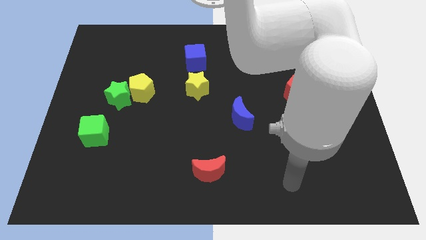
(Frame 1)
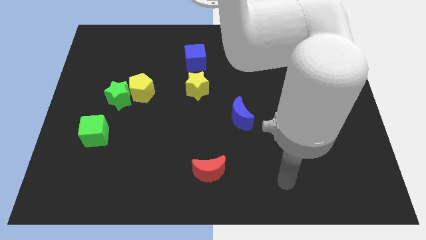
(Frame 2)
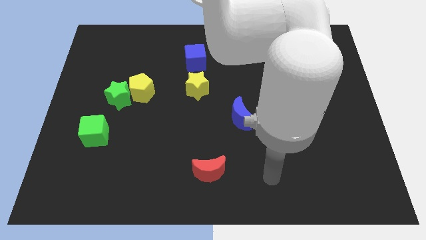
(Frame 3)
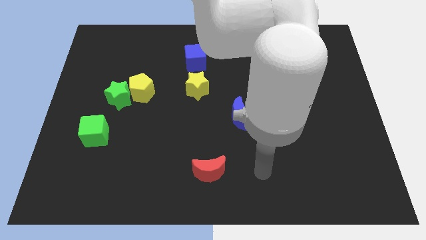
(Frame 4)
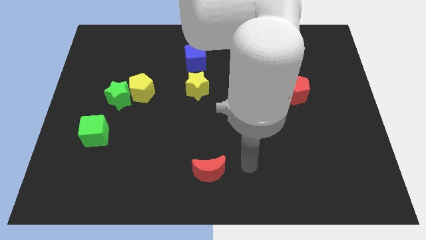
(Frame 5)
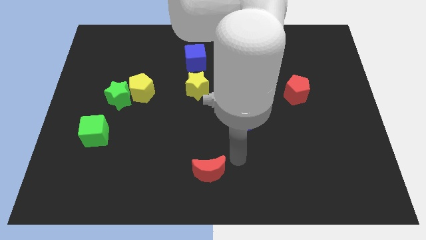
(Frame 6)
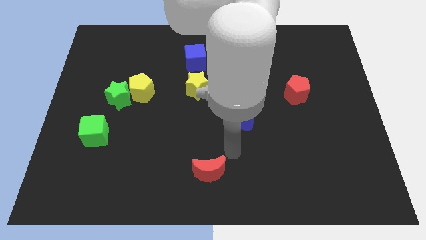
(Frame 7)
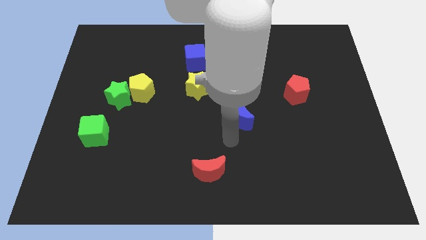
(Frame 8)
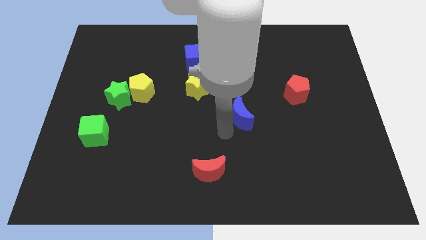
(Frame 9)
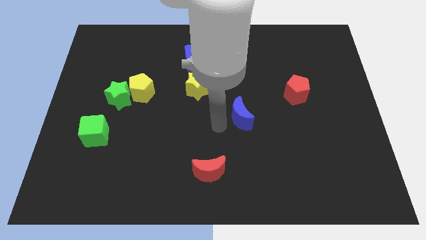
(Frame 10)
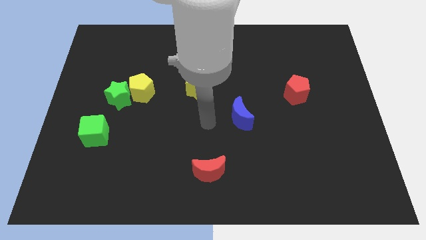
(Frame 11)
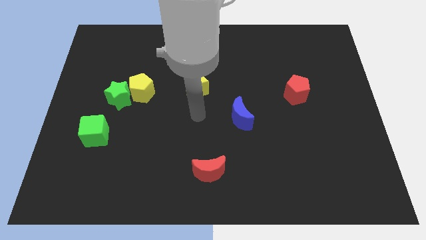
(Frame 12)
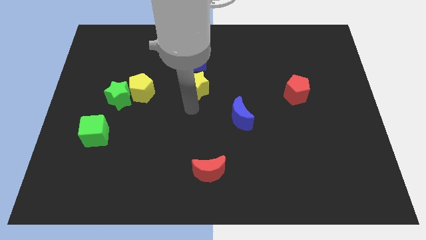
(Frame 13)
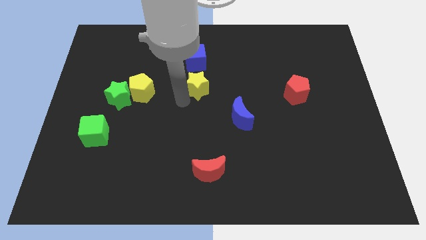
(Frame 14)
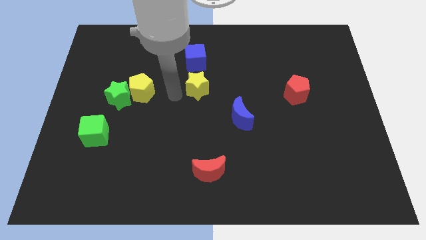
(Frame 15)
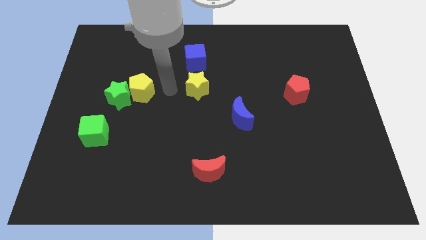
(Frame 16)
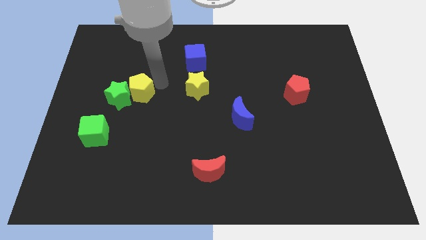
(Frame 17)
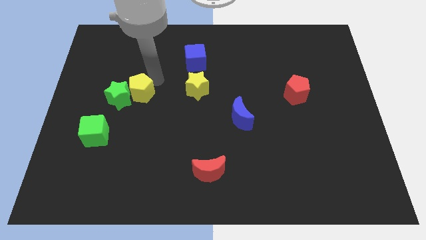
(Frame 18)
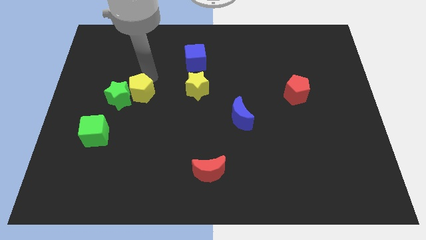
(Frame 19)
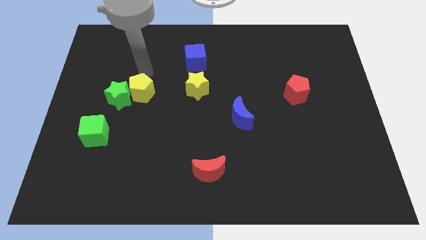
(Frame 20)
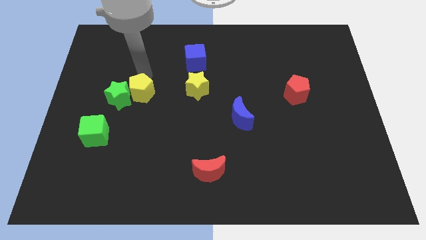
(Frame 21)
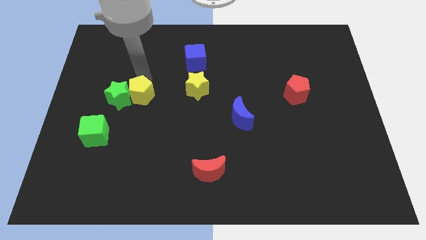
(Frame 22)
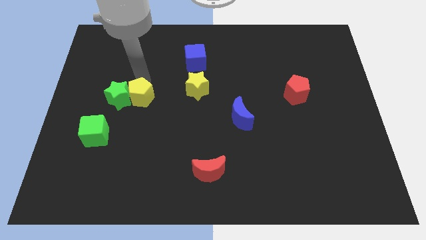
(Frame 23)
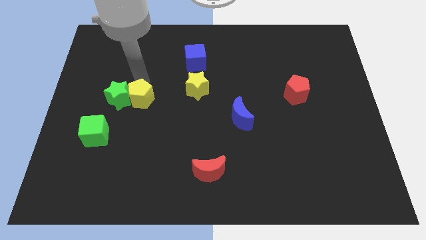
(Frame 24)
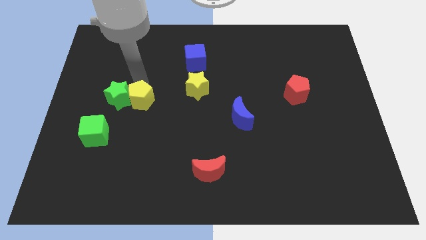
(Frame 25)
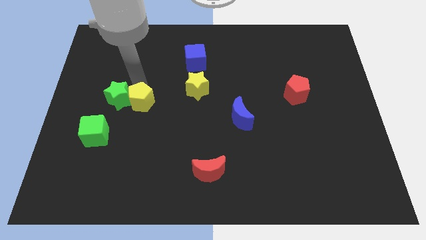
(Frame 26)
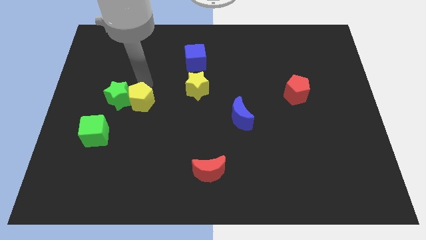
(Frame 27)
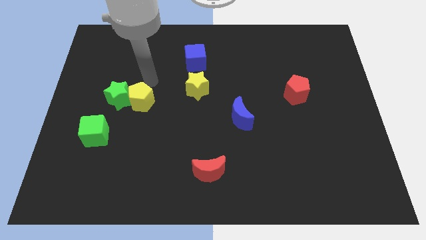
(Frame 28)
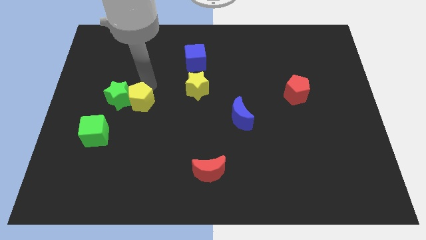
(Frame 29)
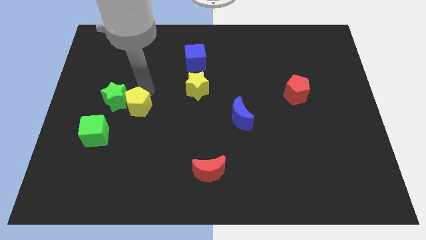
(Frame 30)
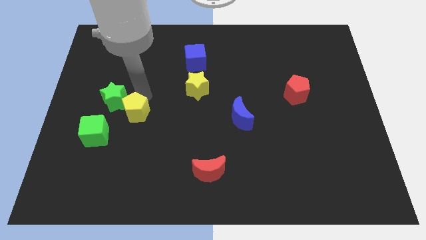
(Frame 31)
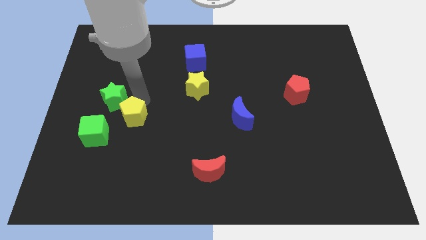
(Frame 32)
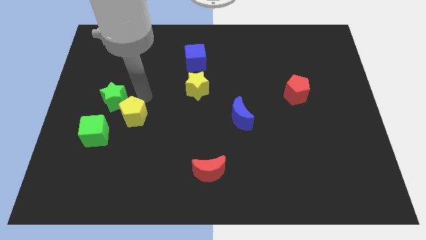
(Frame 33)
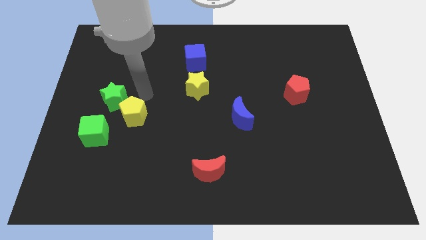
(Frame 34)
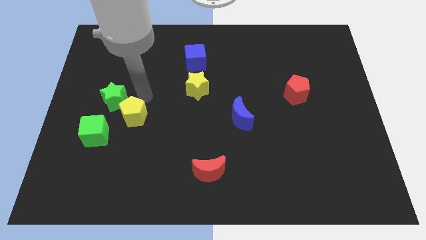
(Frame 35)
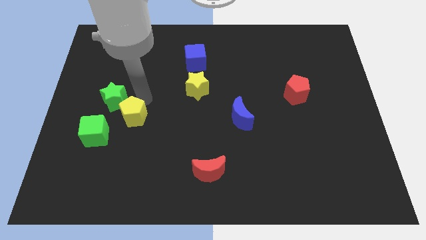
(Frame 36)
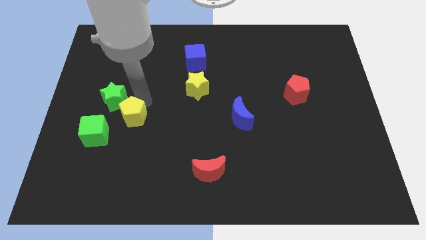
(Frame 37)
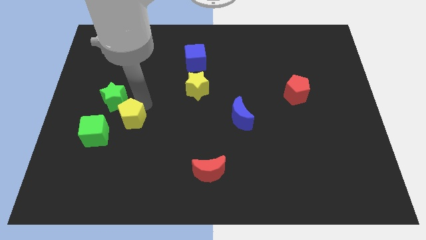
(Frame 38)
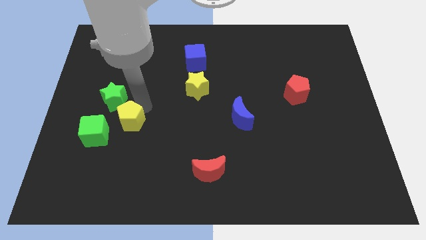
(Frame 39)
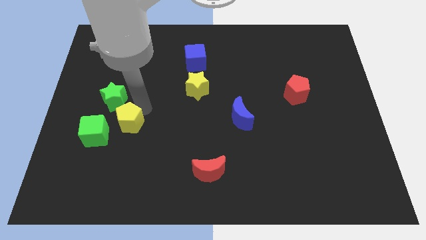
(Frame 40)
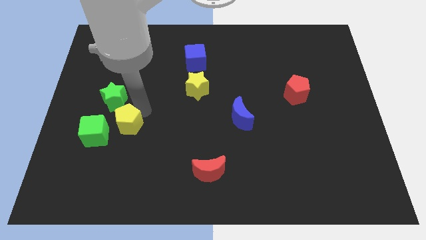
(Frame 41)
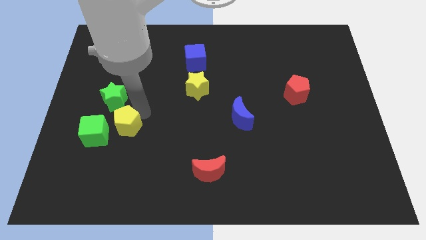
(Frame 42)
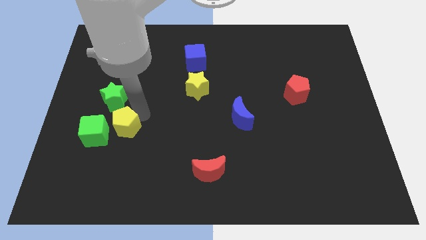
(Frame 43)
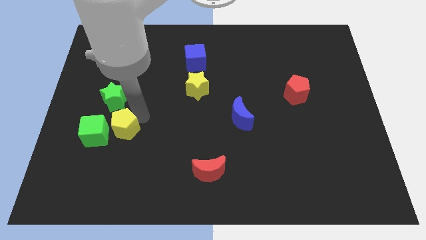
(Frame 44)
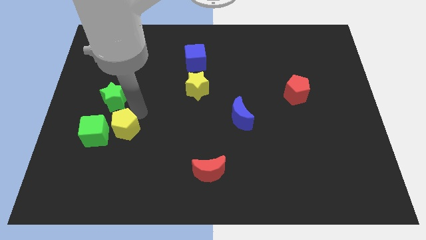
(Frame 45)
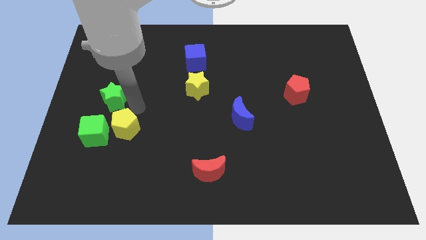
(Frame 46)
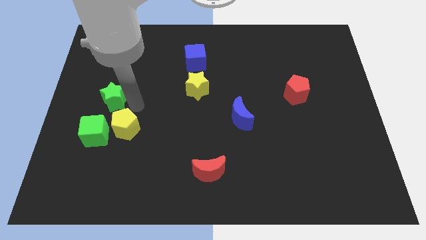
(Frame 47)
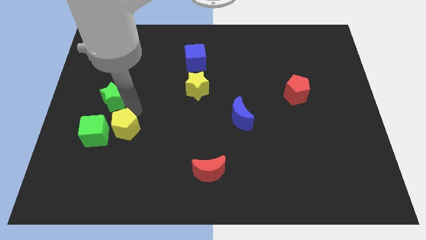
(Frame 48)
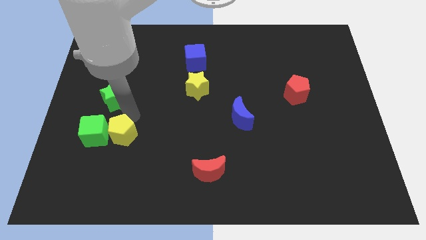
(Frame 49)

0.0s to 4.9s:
slide the yellow pentagon to the bottom right of the green cube

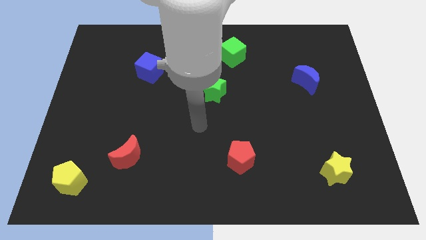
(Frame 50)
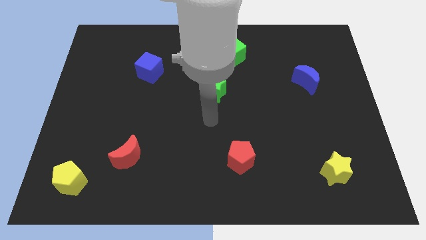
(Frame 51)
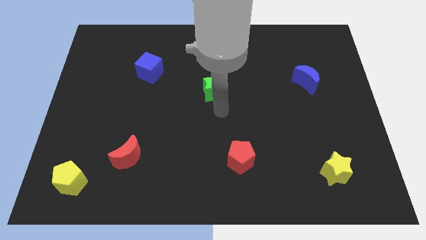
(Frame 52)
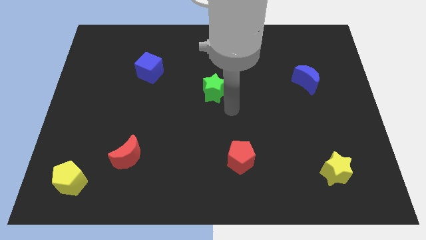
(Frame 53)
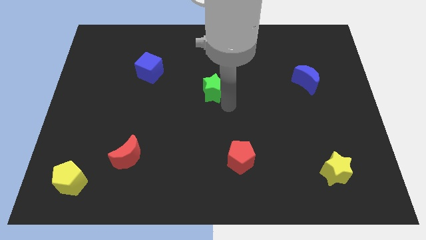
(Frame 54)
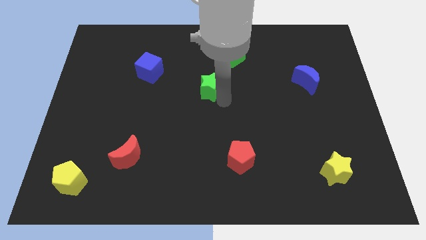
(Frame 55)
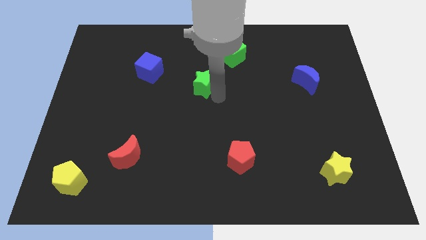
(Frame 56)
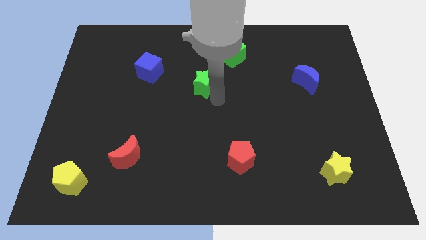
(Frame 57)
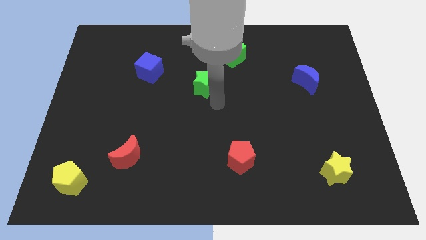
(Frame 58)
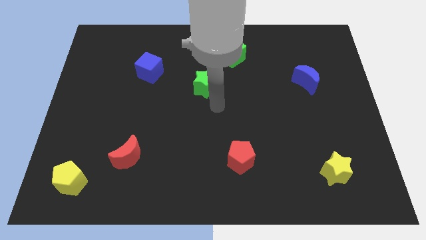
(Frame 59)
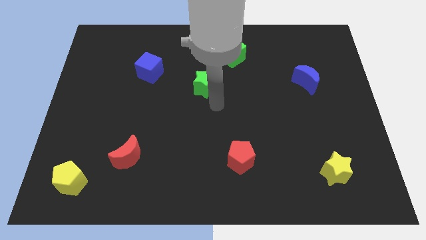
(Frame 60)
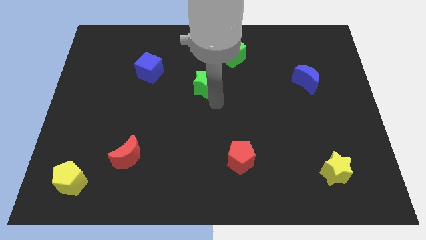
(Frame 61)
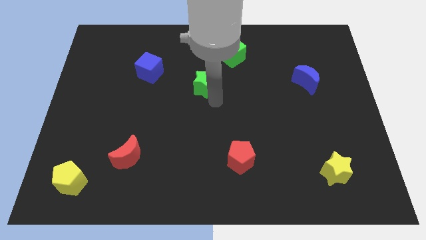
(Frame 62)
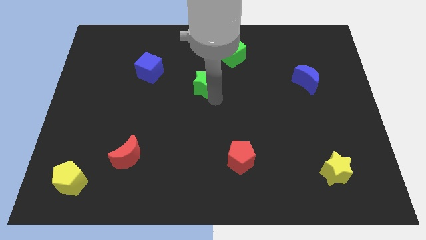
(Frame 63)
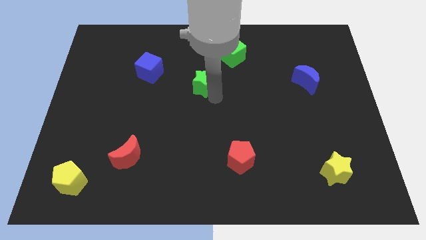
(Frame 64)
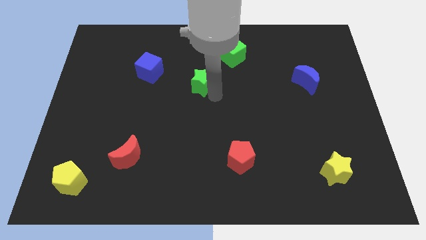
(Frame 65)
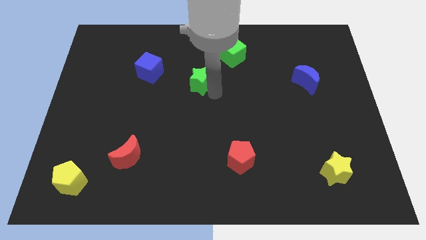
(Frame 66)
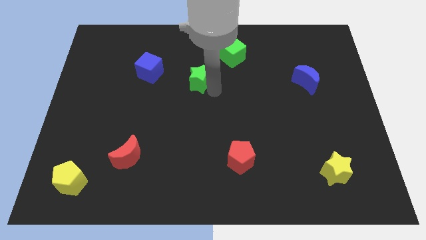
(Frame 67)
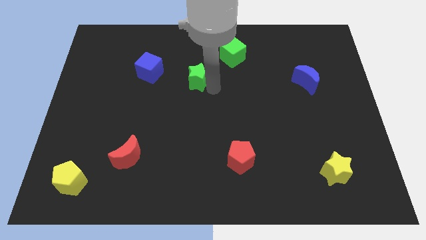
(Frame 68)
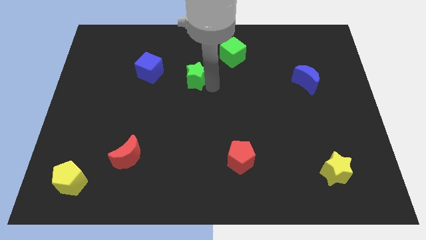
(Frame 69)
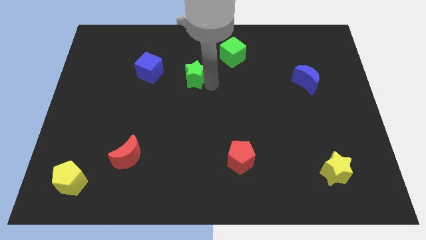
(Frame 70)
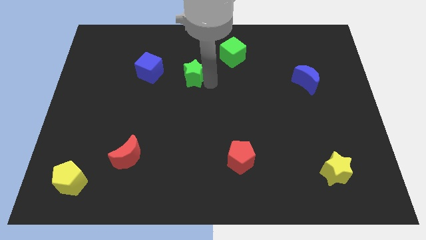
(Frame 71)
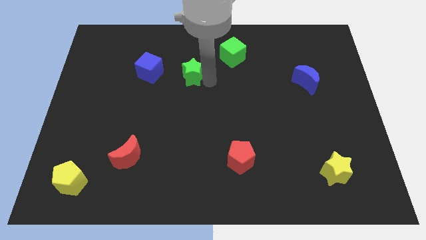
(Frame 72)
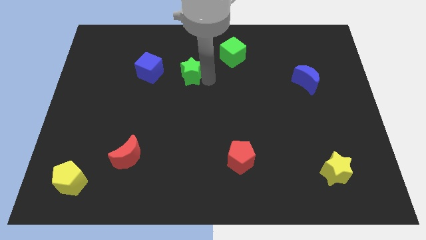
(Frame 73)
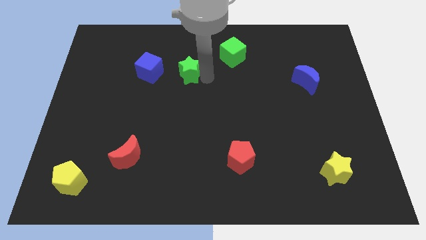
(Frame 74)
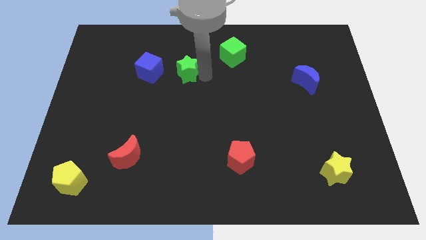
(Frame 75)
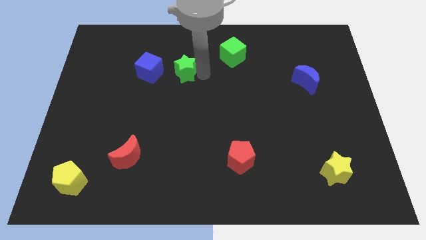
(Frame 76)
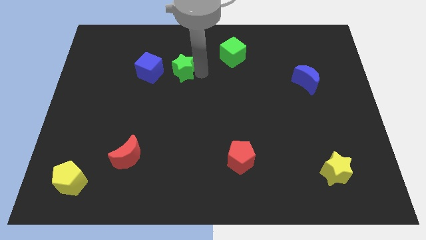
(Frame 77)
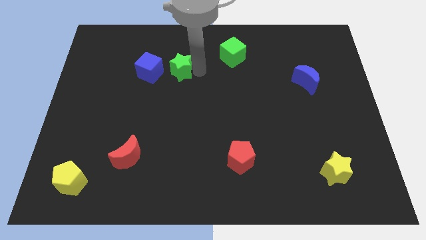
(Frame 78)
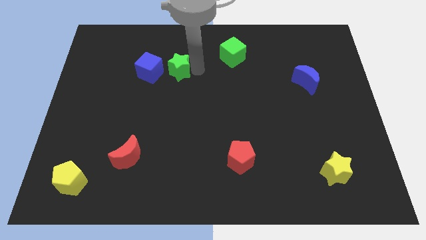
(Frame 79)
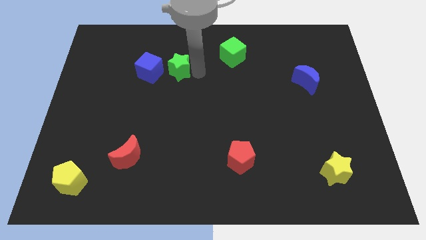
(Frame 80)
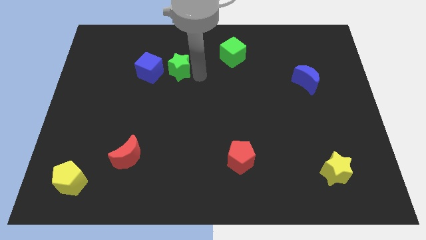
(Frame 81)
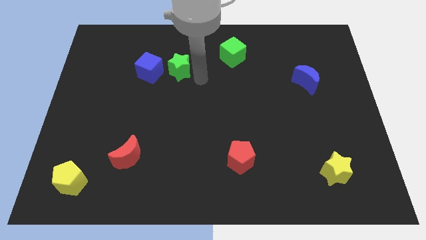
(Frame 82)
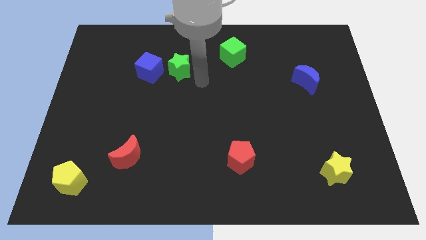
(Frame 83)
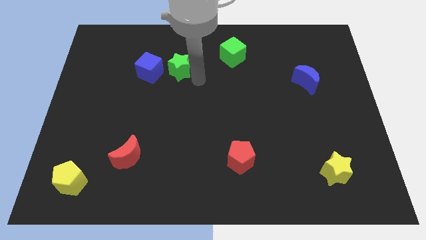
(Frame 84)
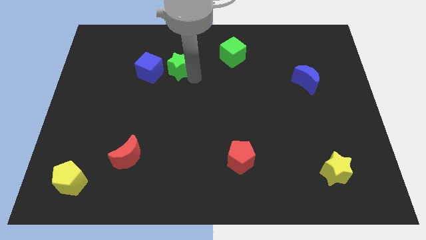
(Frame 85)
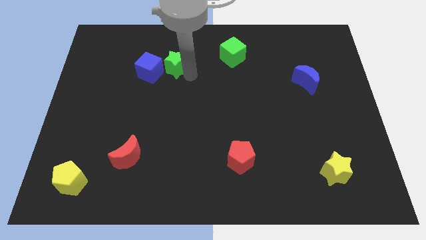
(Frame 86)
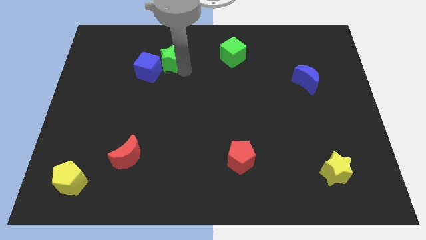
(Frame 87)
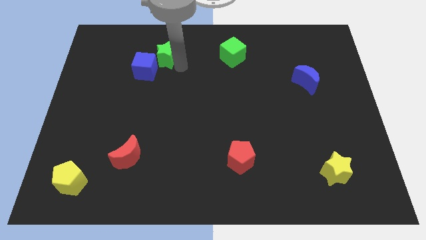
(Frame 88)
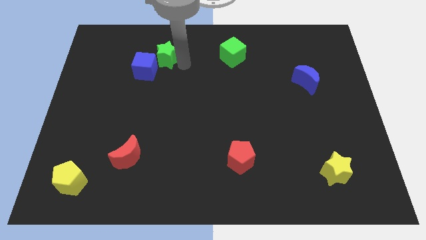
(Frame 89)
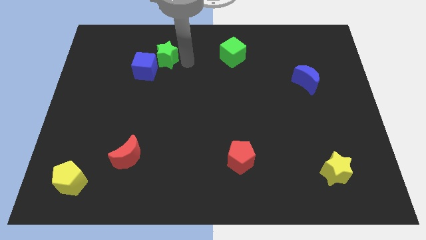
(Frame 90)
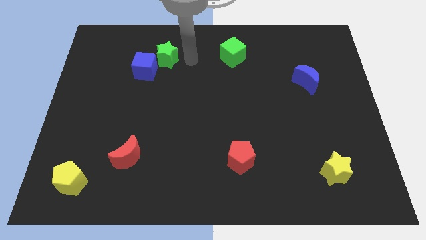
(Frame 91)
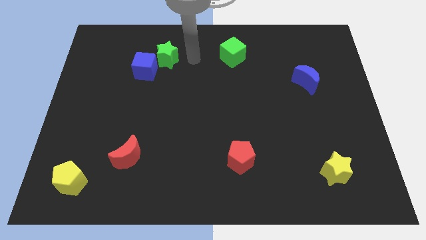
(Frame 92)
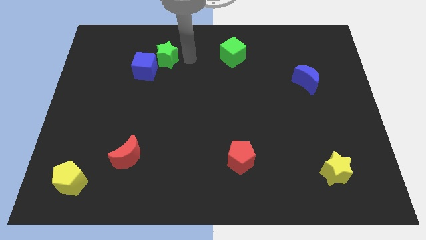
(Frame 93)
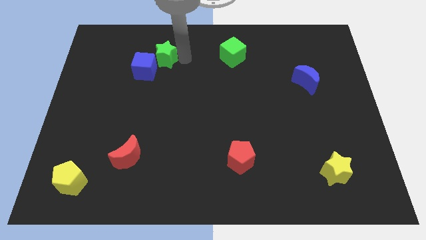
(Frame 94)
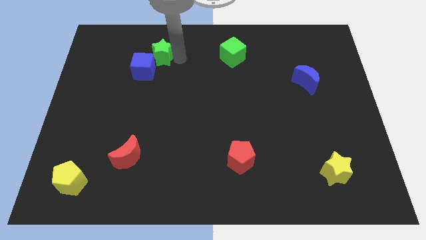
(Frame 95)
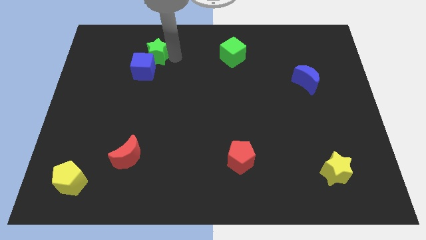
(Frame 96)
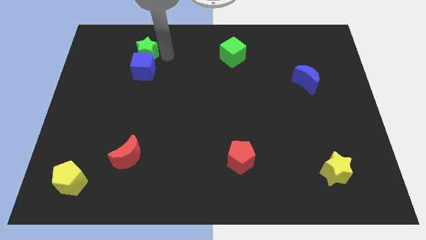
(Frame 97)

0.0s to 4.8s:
push the green star diagonally up and to the left of the blue cube
